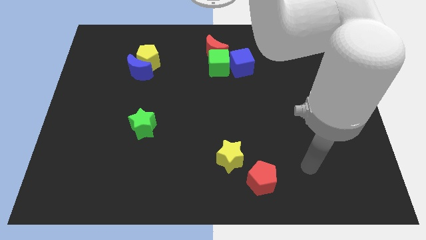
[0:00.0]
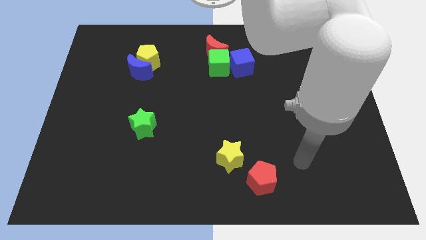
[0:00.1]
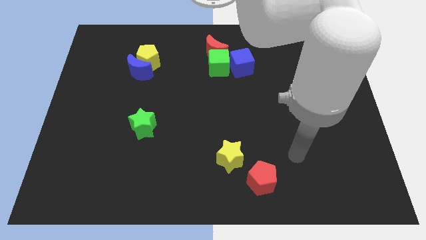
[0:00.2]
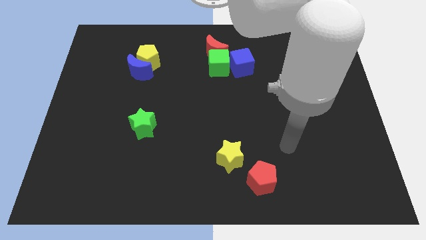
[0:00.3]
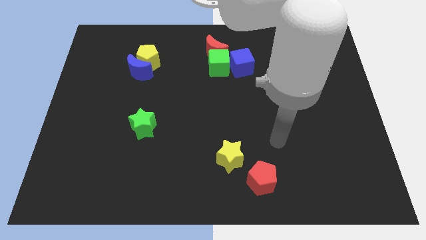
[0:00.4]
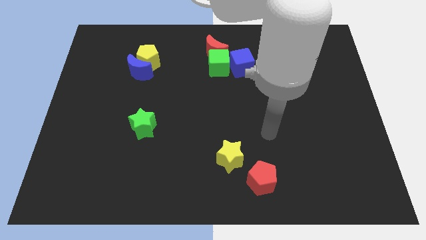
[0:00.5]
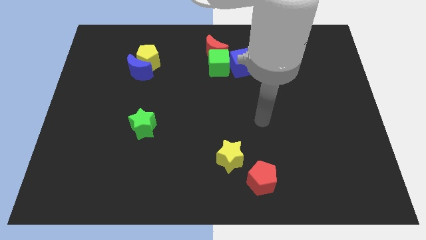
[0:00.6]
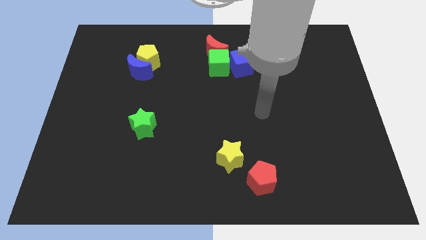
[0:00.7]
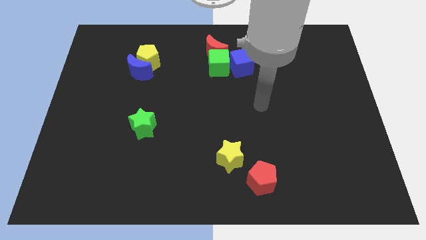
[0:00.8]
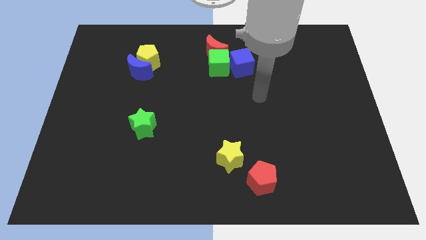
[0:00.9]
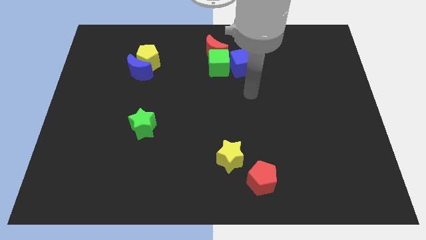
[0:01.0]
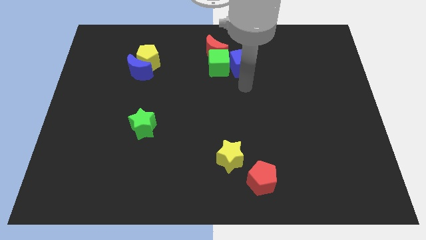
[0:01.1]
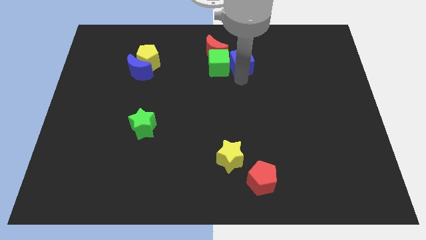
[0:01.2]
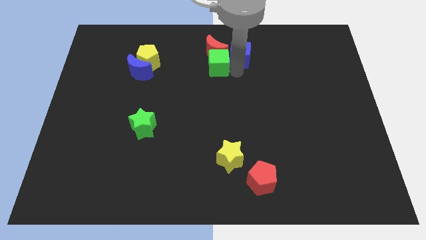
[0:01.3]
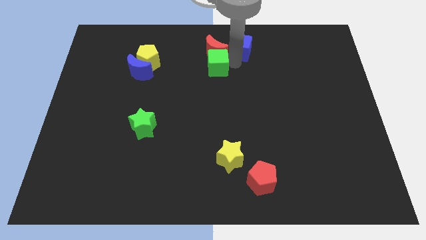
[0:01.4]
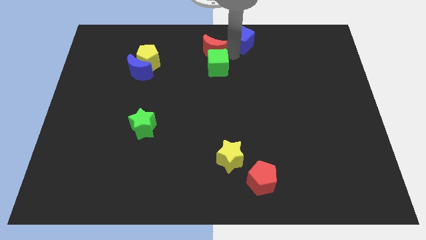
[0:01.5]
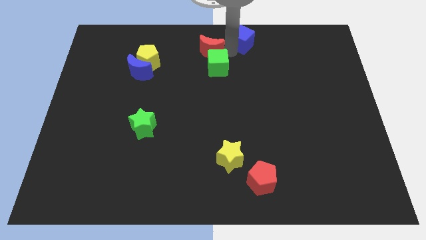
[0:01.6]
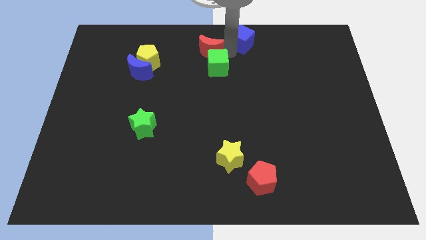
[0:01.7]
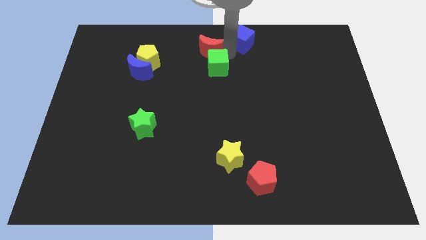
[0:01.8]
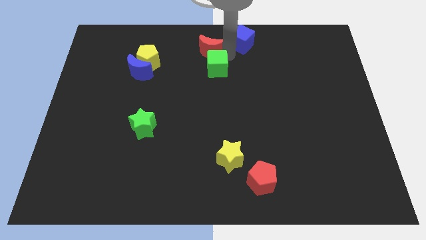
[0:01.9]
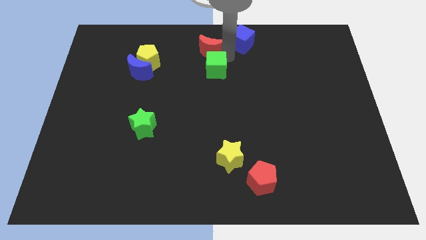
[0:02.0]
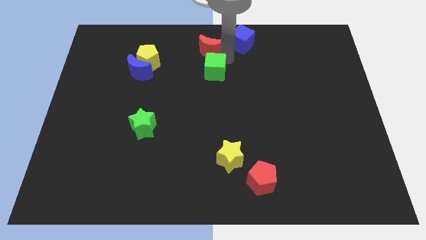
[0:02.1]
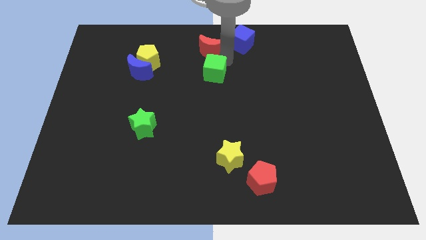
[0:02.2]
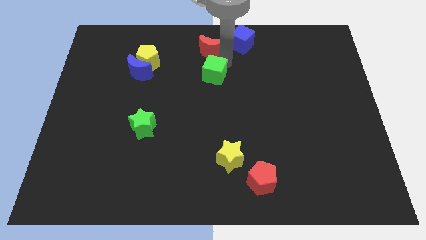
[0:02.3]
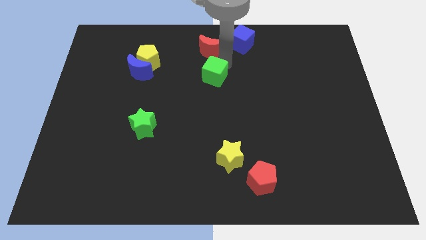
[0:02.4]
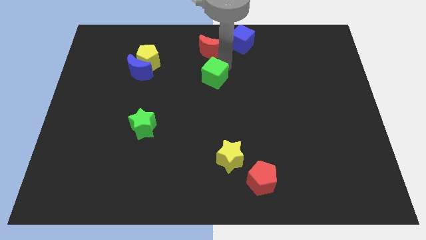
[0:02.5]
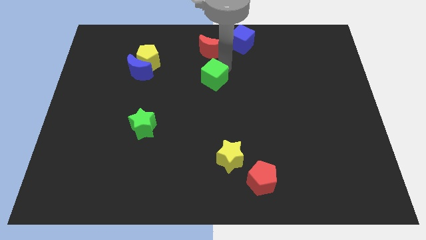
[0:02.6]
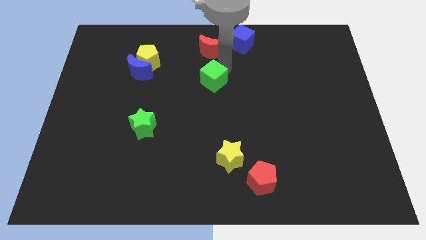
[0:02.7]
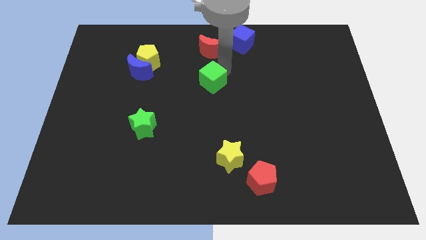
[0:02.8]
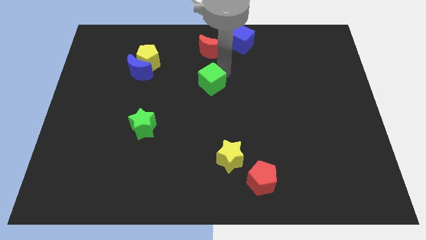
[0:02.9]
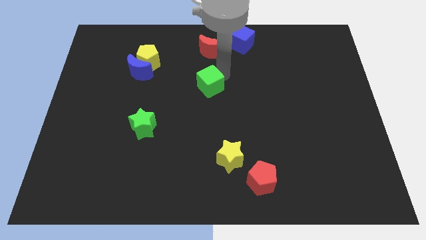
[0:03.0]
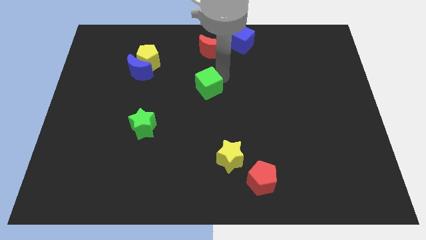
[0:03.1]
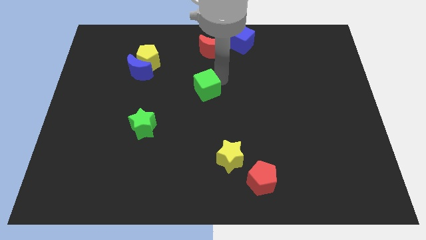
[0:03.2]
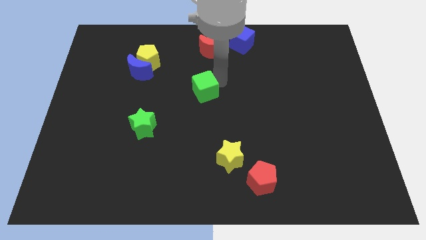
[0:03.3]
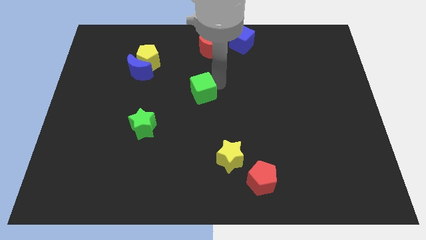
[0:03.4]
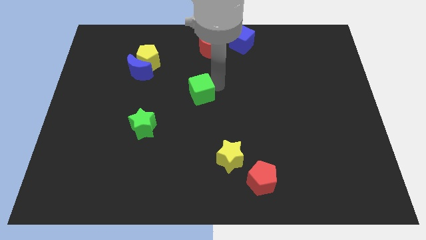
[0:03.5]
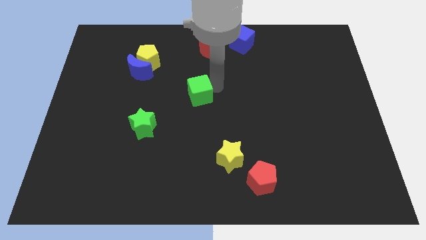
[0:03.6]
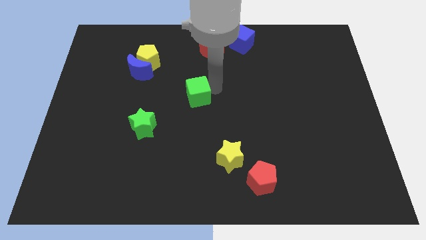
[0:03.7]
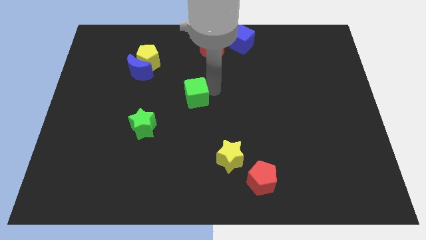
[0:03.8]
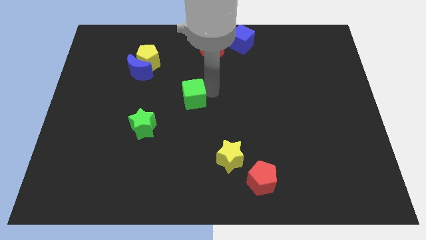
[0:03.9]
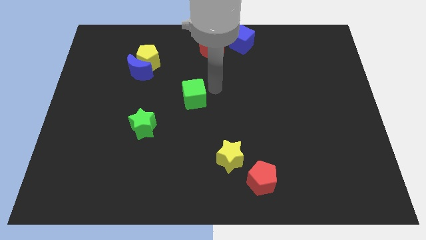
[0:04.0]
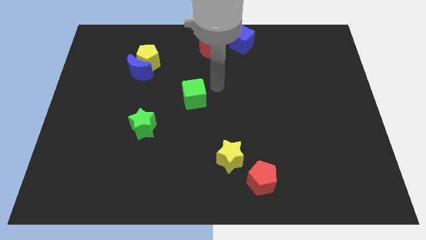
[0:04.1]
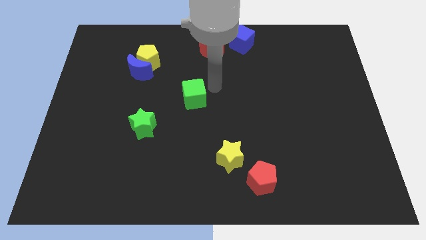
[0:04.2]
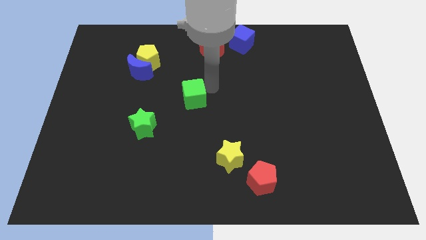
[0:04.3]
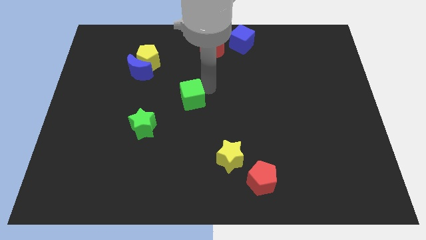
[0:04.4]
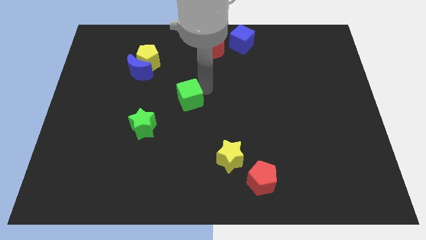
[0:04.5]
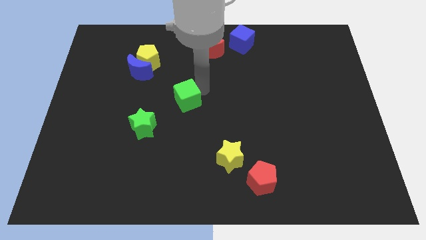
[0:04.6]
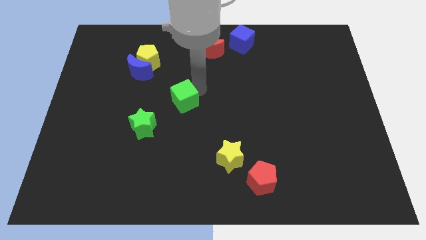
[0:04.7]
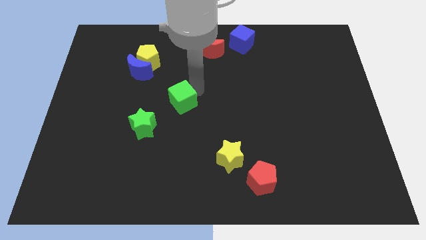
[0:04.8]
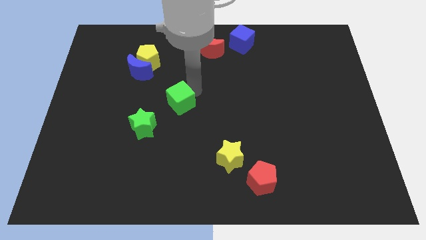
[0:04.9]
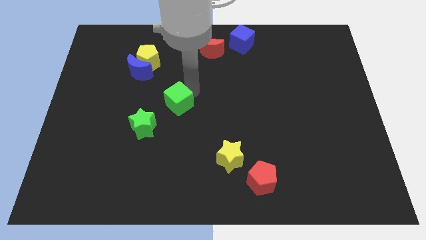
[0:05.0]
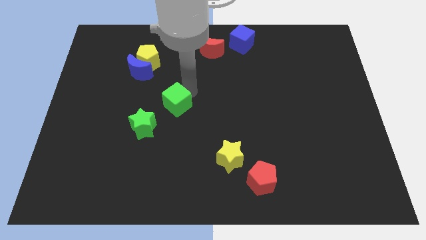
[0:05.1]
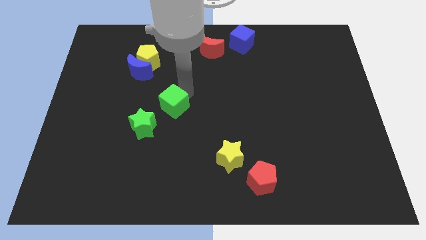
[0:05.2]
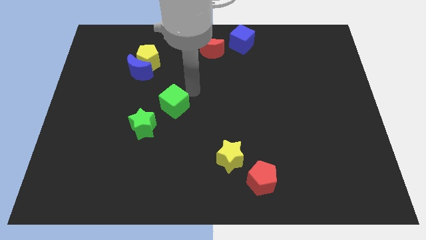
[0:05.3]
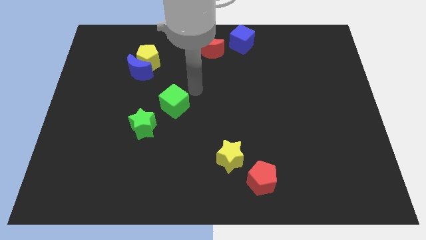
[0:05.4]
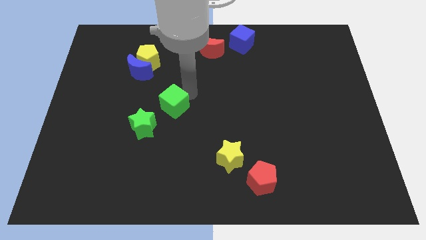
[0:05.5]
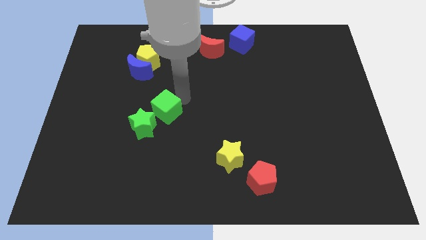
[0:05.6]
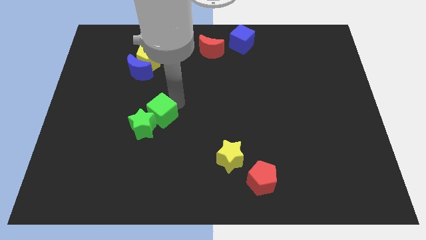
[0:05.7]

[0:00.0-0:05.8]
slide the green cube next to the green star

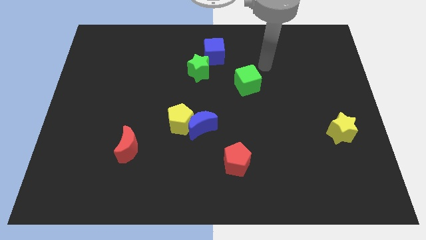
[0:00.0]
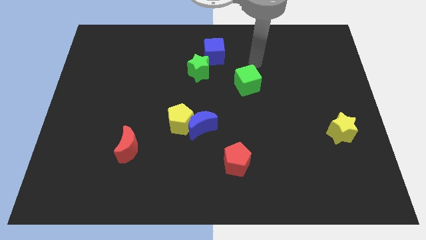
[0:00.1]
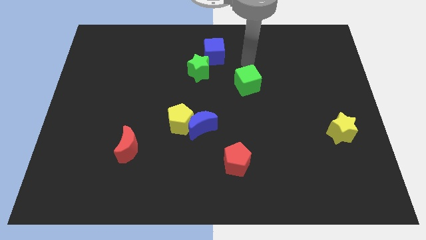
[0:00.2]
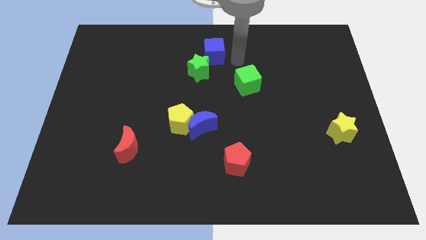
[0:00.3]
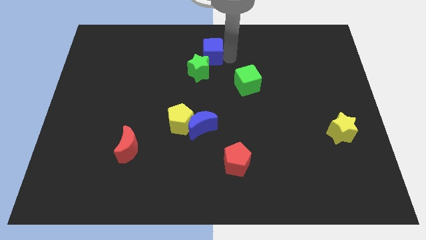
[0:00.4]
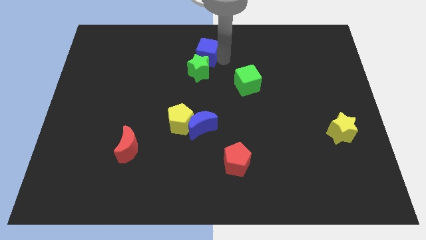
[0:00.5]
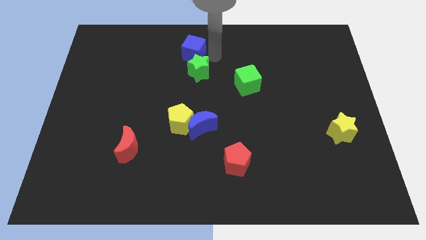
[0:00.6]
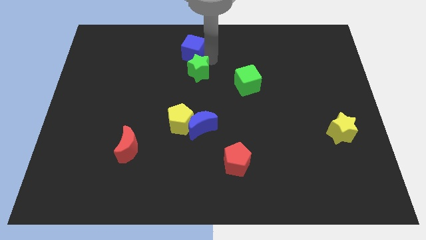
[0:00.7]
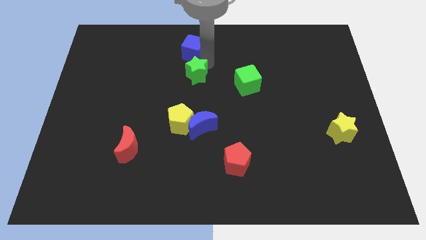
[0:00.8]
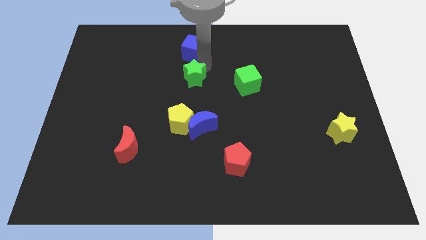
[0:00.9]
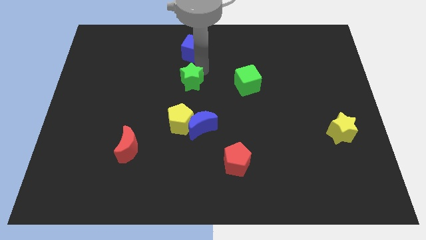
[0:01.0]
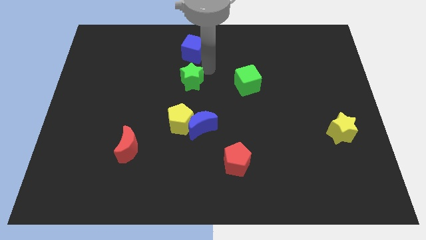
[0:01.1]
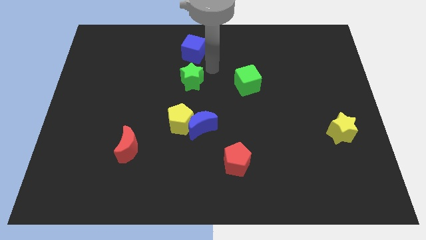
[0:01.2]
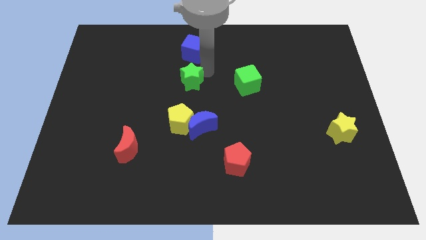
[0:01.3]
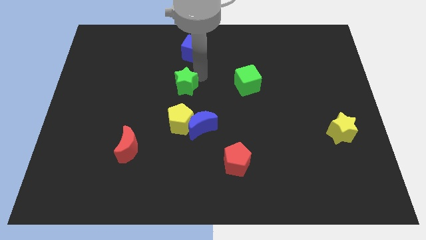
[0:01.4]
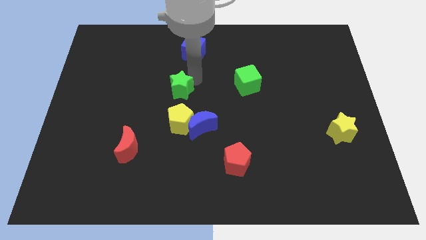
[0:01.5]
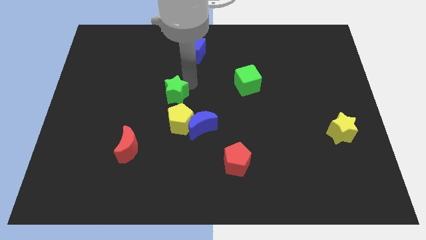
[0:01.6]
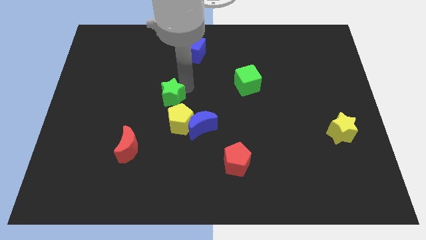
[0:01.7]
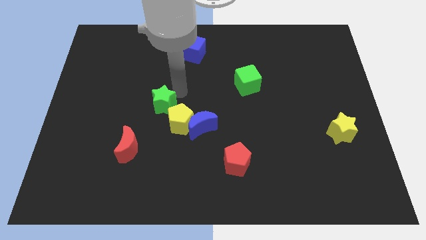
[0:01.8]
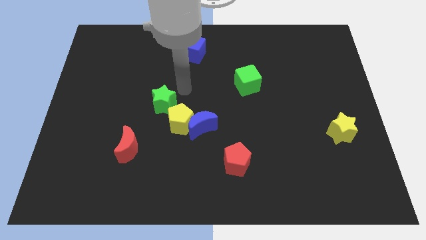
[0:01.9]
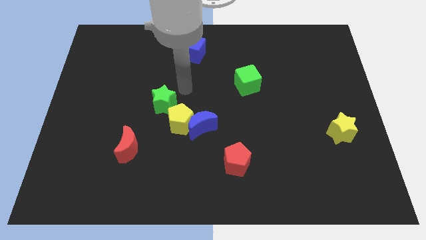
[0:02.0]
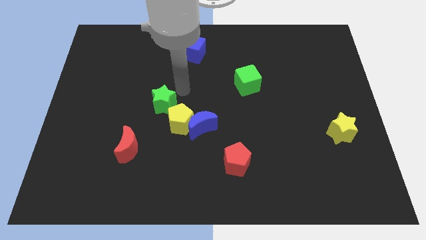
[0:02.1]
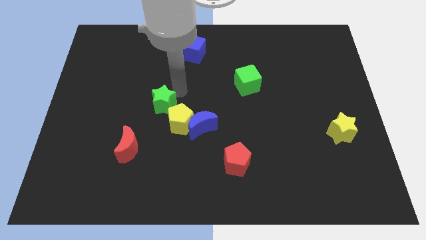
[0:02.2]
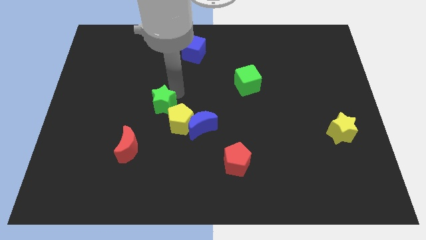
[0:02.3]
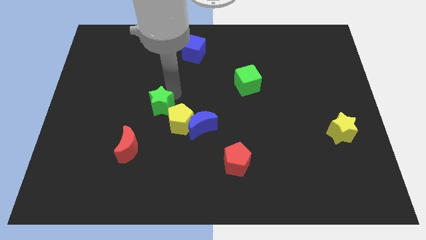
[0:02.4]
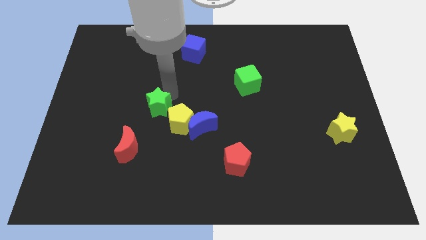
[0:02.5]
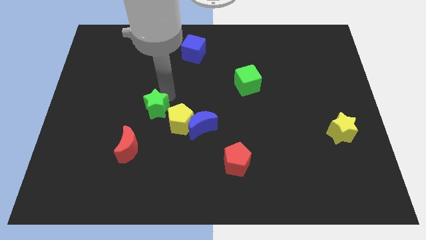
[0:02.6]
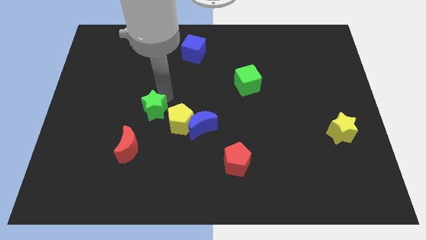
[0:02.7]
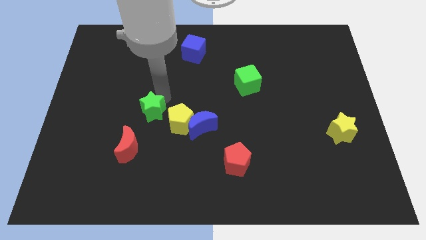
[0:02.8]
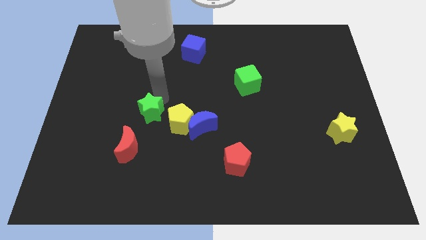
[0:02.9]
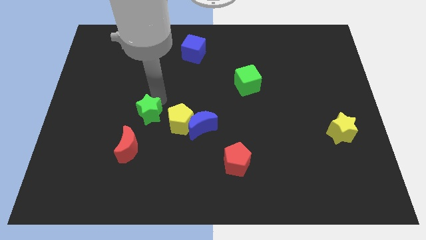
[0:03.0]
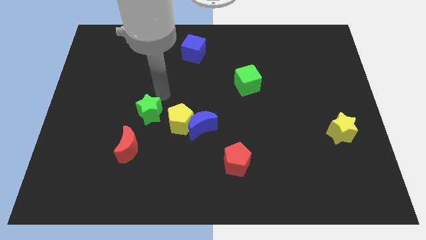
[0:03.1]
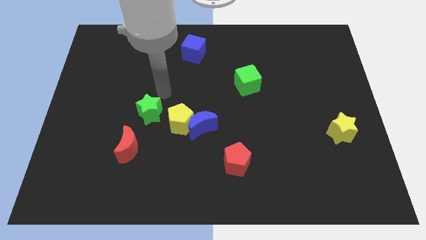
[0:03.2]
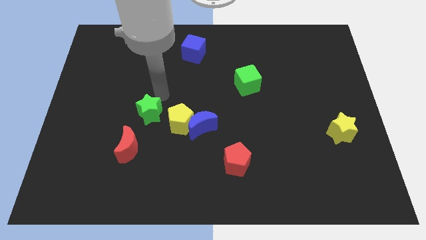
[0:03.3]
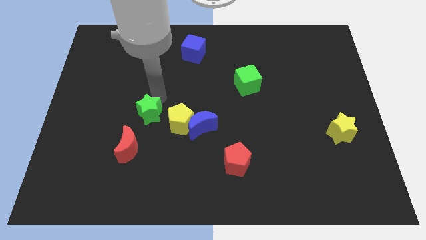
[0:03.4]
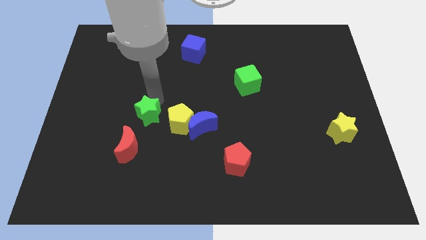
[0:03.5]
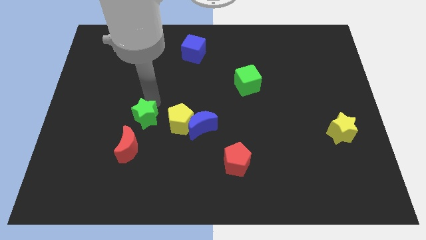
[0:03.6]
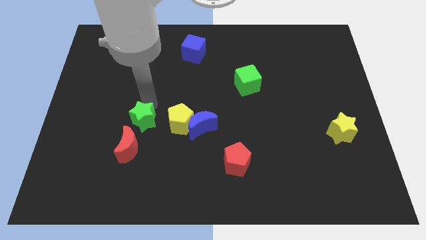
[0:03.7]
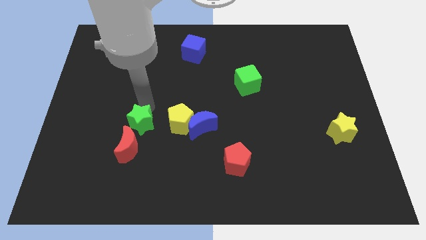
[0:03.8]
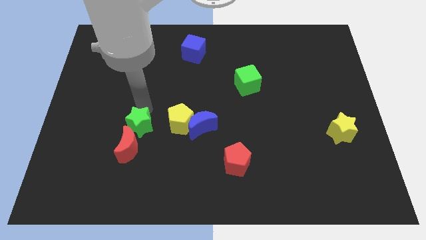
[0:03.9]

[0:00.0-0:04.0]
move the green star close to the red moon
